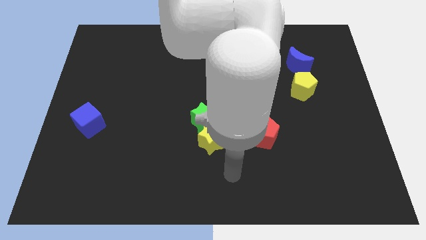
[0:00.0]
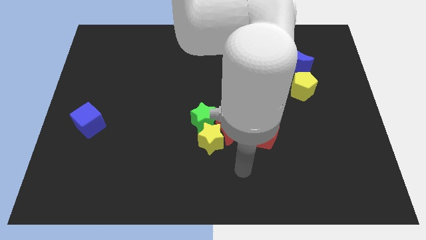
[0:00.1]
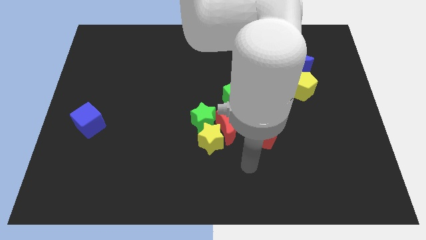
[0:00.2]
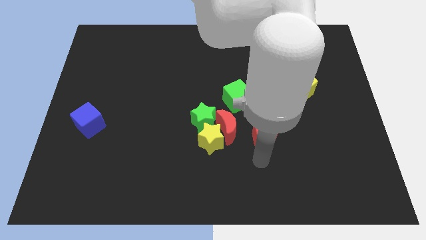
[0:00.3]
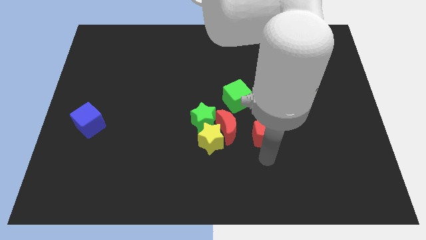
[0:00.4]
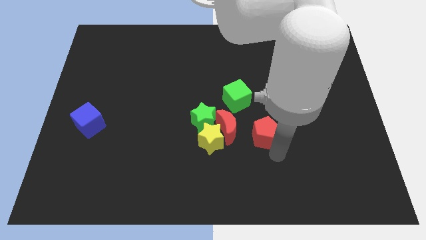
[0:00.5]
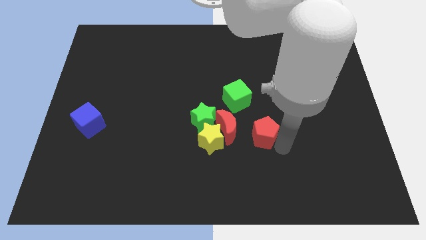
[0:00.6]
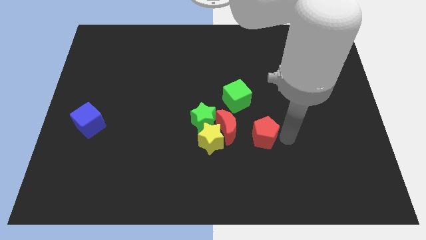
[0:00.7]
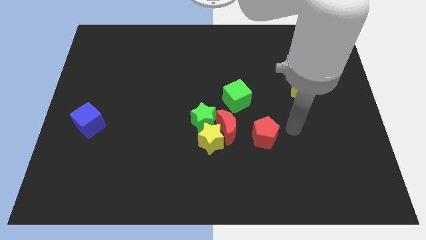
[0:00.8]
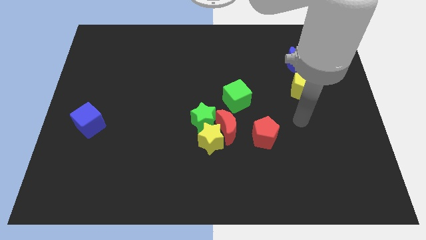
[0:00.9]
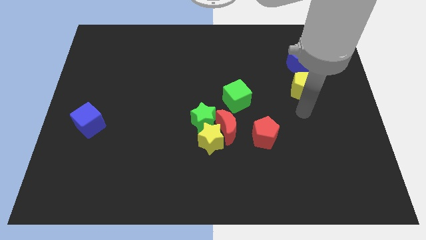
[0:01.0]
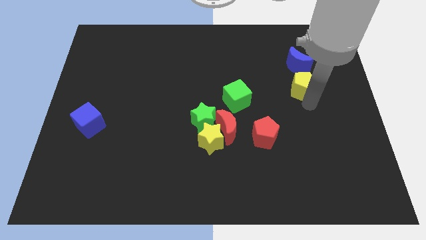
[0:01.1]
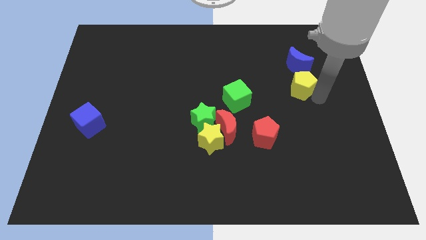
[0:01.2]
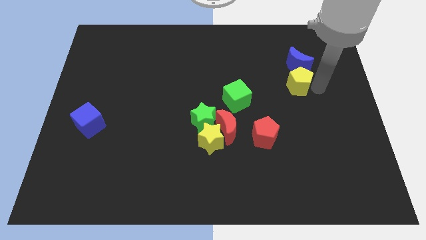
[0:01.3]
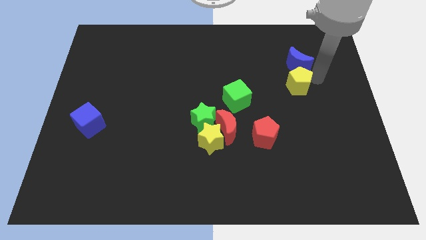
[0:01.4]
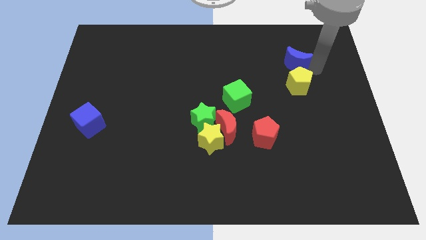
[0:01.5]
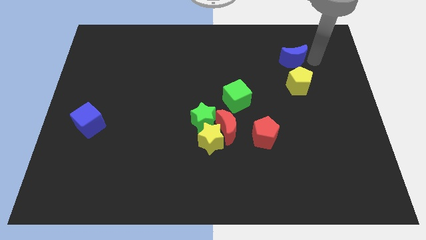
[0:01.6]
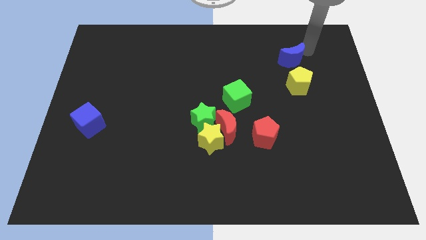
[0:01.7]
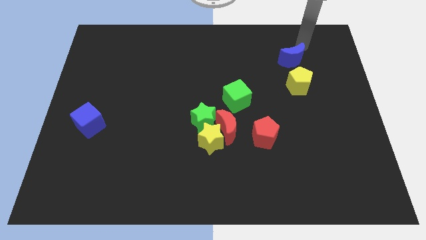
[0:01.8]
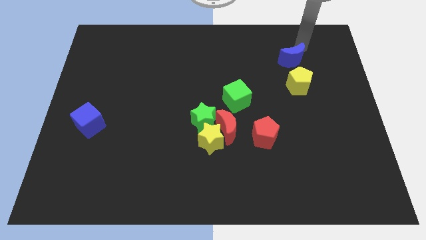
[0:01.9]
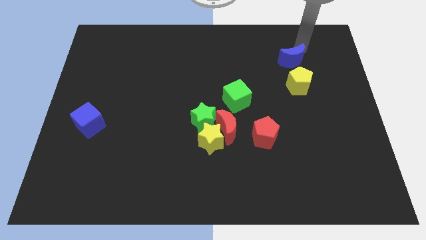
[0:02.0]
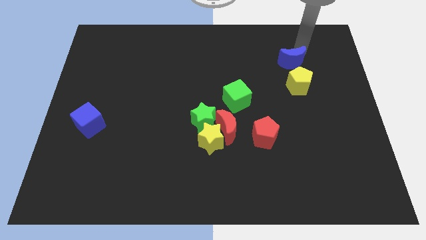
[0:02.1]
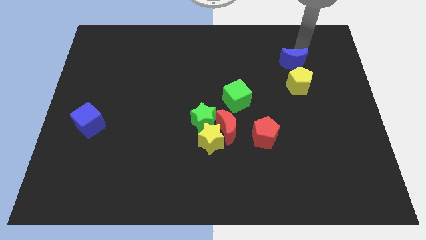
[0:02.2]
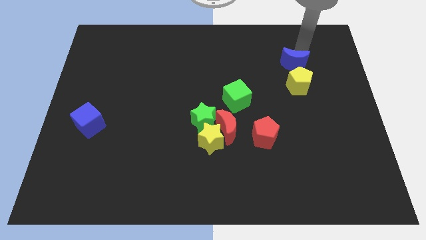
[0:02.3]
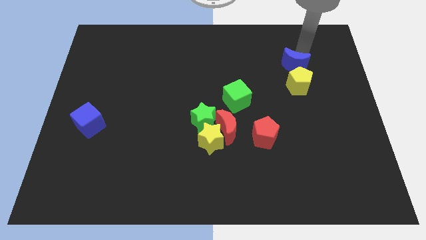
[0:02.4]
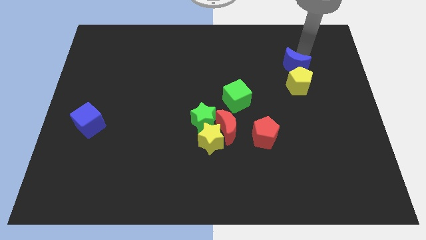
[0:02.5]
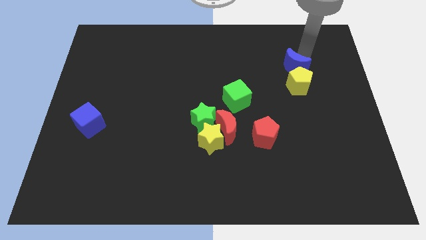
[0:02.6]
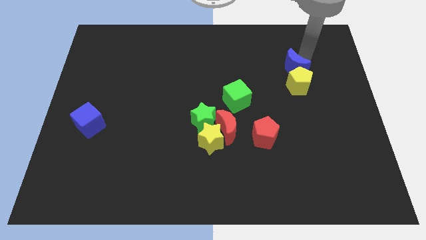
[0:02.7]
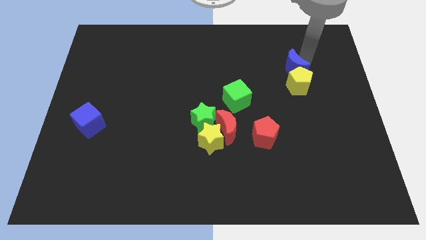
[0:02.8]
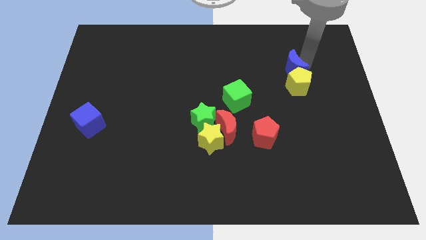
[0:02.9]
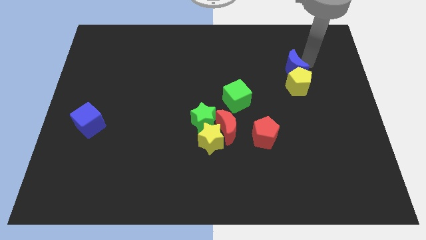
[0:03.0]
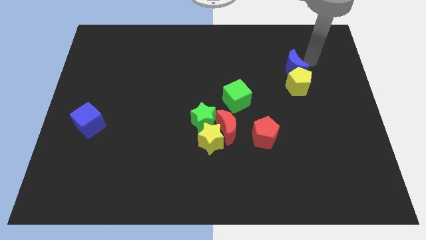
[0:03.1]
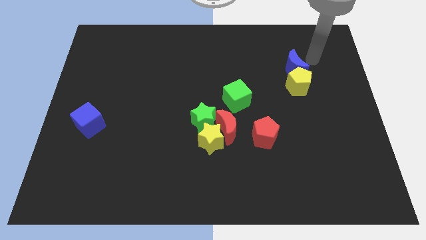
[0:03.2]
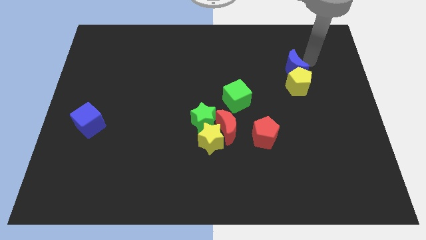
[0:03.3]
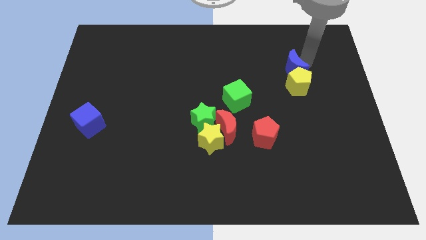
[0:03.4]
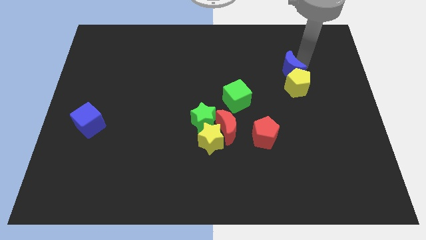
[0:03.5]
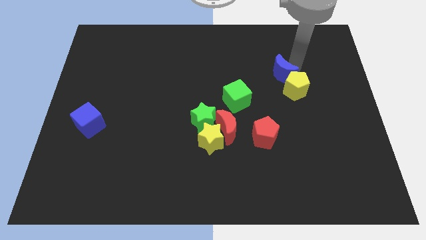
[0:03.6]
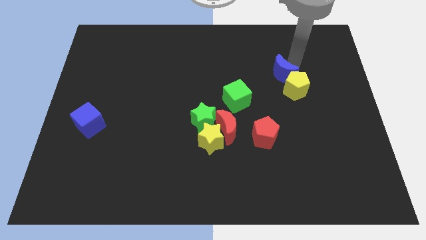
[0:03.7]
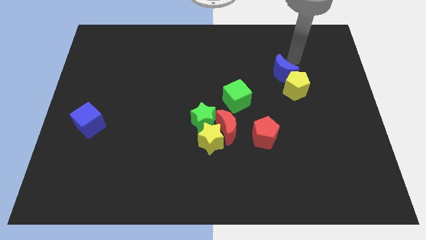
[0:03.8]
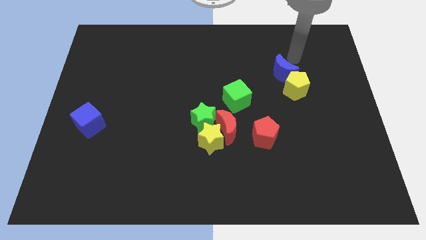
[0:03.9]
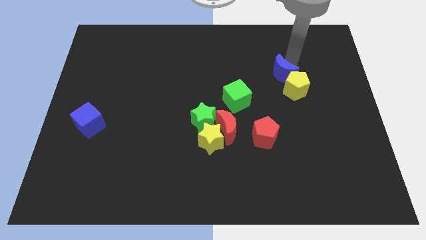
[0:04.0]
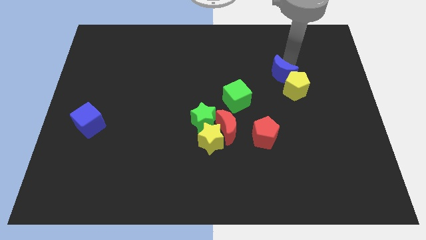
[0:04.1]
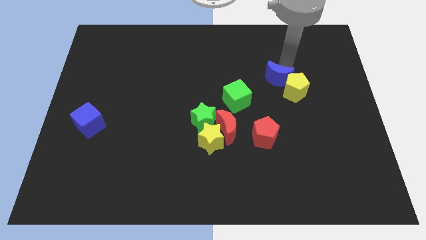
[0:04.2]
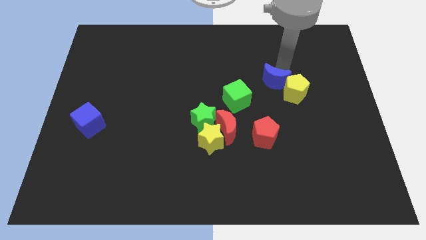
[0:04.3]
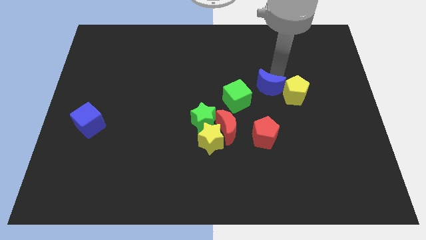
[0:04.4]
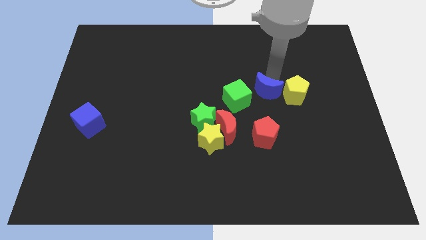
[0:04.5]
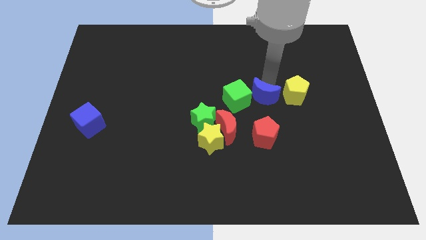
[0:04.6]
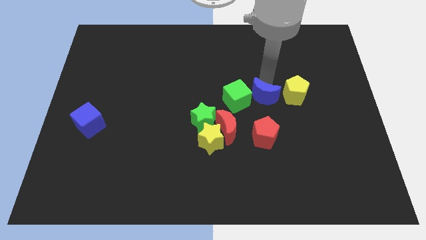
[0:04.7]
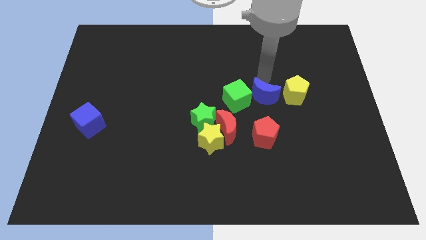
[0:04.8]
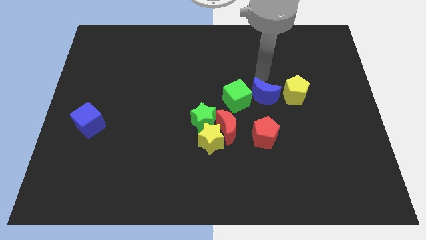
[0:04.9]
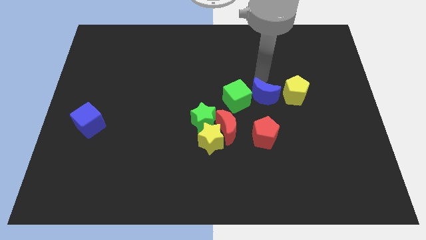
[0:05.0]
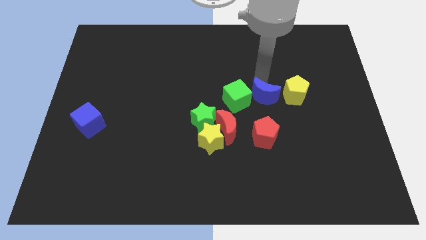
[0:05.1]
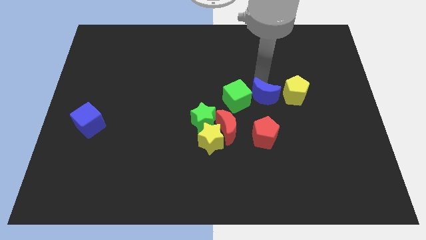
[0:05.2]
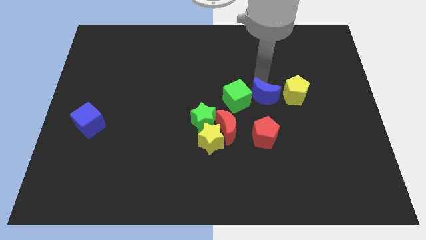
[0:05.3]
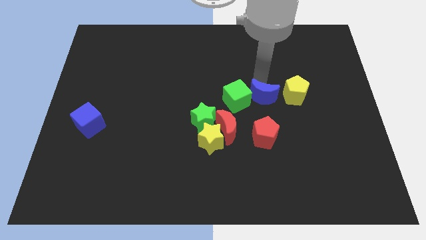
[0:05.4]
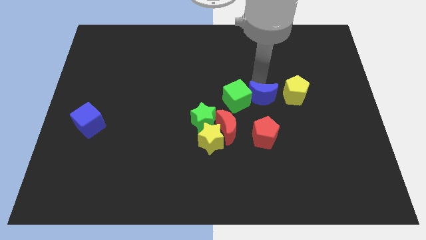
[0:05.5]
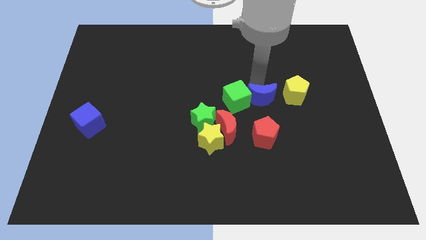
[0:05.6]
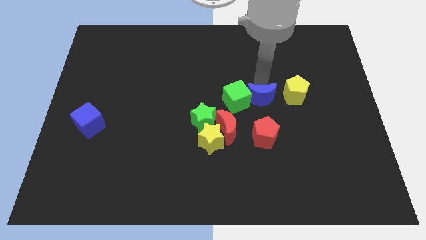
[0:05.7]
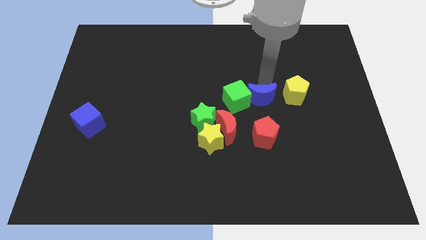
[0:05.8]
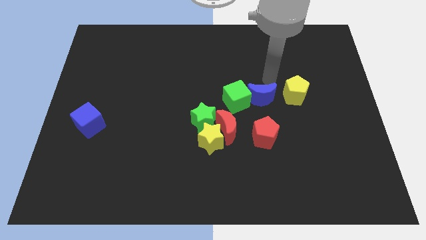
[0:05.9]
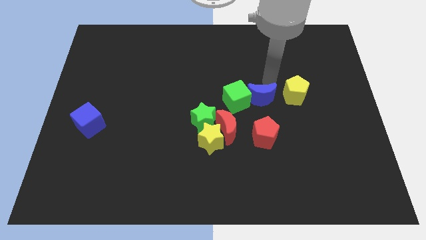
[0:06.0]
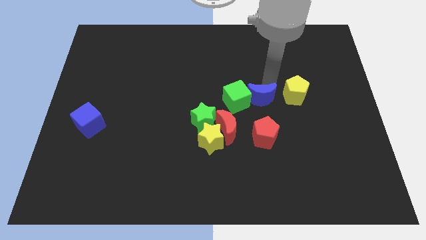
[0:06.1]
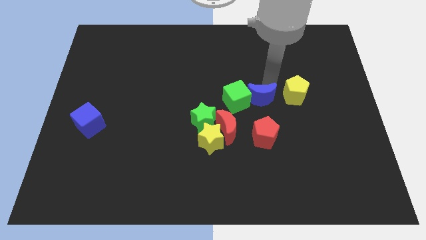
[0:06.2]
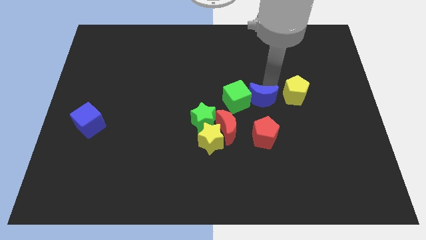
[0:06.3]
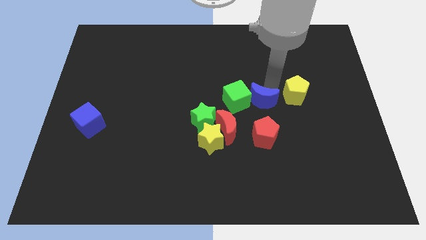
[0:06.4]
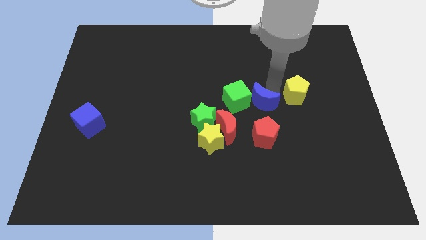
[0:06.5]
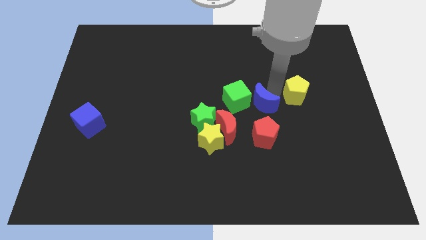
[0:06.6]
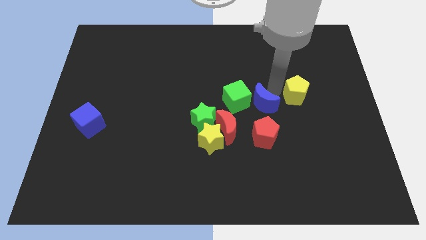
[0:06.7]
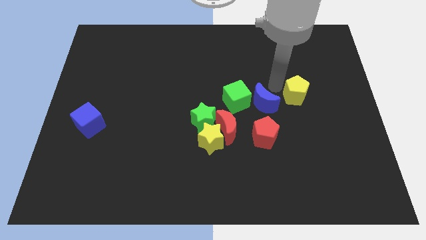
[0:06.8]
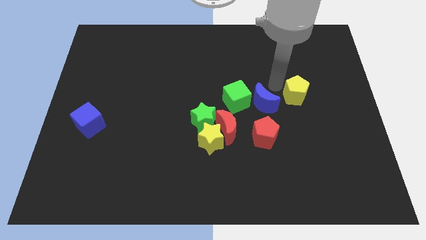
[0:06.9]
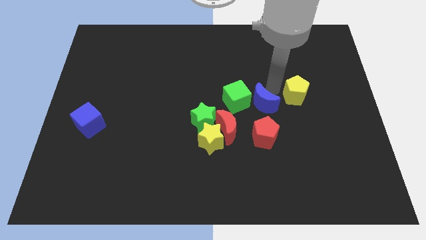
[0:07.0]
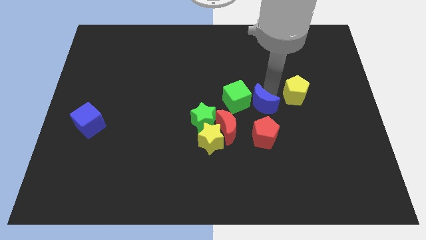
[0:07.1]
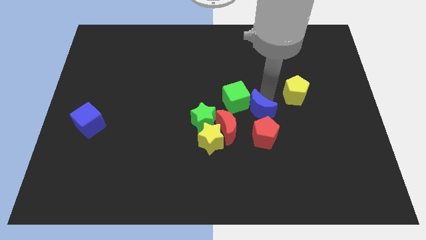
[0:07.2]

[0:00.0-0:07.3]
put the blue moon right of the green star

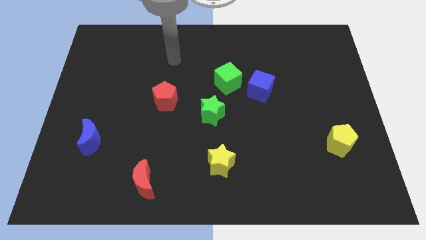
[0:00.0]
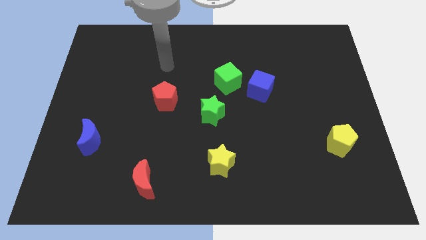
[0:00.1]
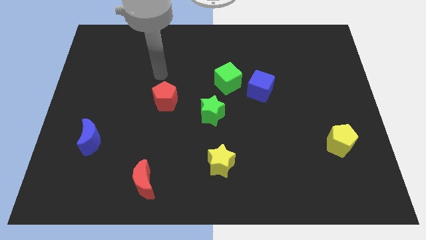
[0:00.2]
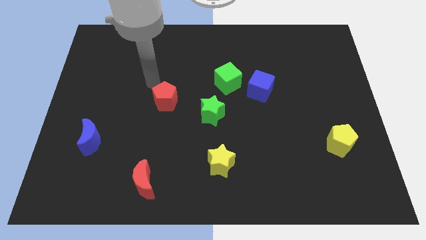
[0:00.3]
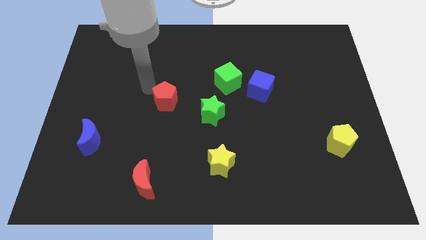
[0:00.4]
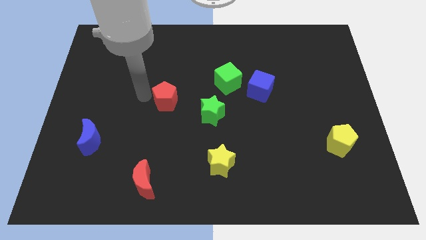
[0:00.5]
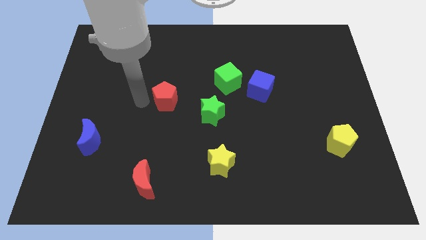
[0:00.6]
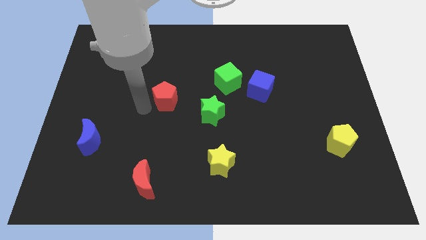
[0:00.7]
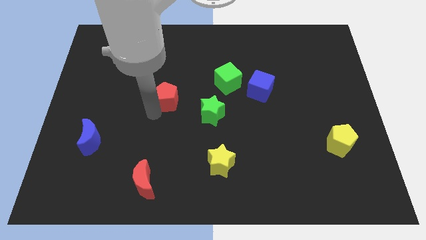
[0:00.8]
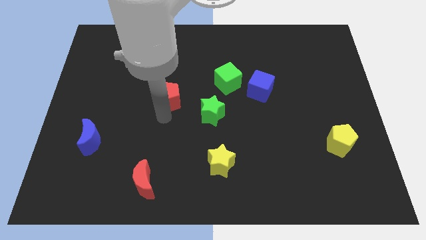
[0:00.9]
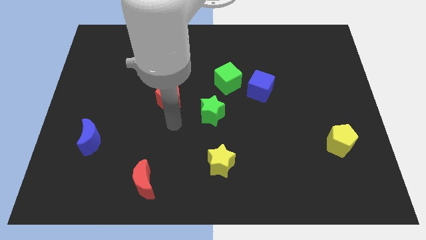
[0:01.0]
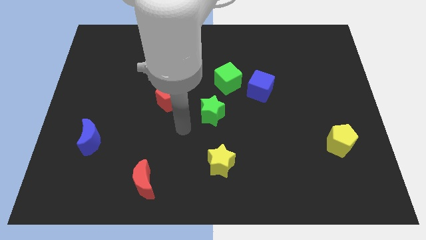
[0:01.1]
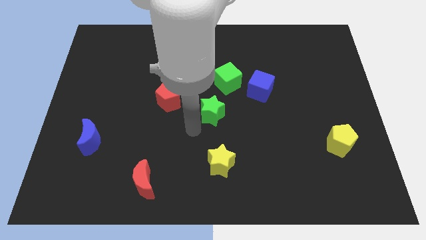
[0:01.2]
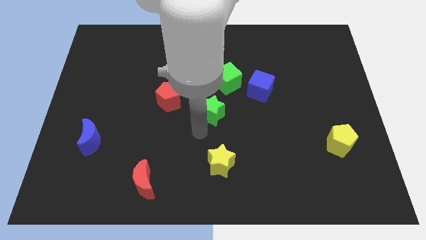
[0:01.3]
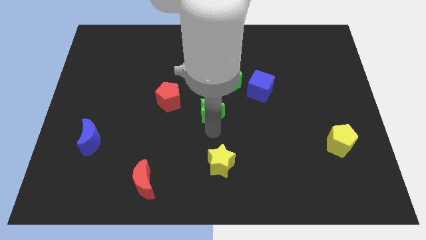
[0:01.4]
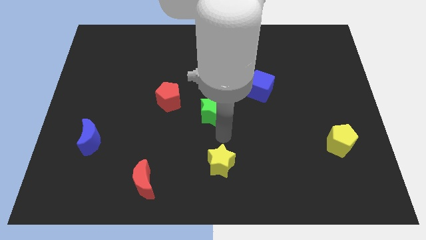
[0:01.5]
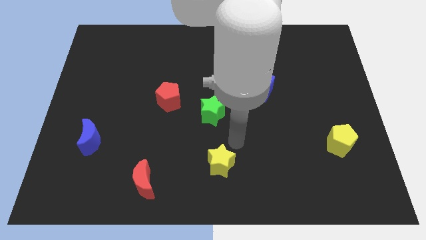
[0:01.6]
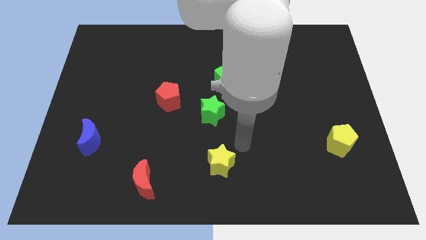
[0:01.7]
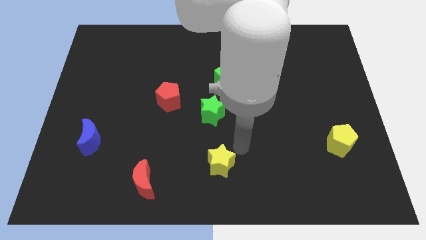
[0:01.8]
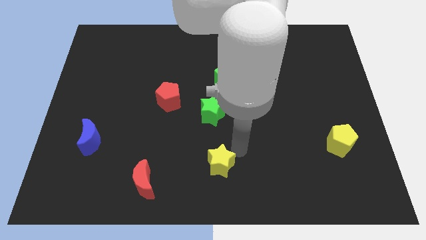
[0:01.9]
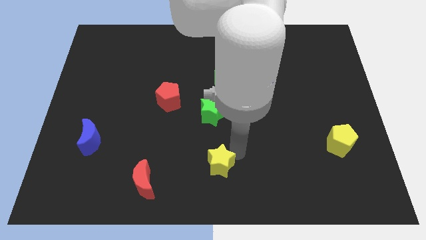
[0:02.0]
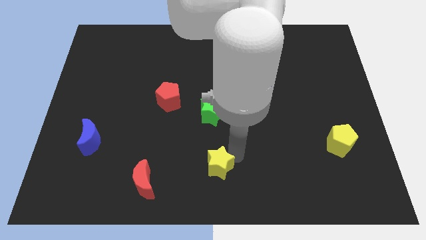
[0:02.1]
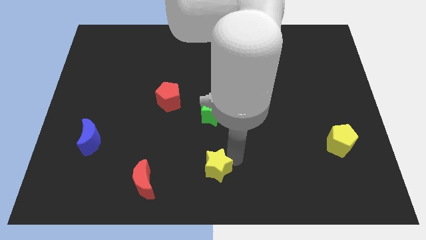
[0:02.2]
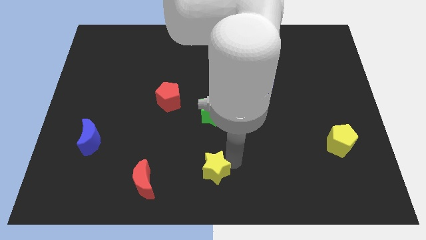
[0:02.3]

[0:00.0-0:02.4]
slide the yellow star to the right side of the red moon
